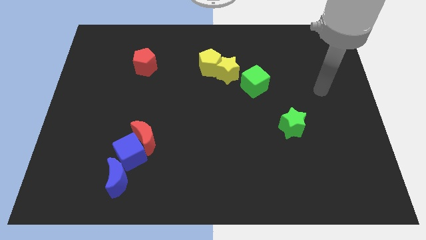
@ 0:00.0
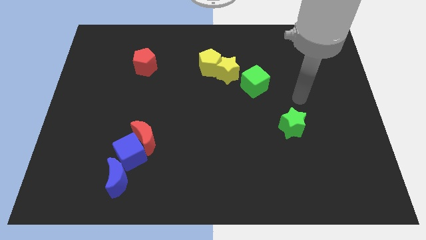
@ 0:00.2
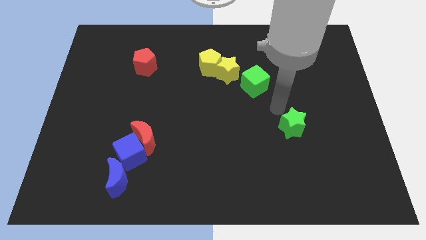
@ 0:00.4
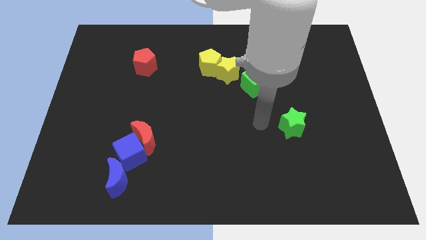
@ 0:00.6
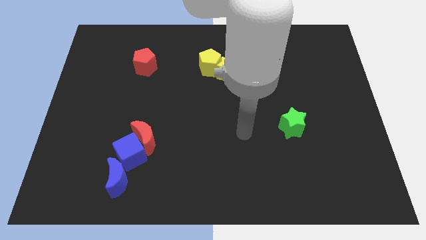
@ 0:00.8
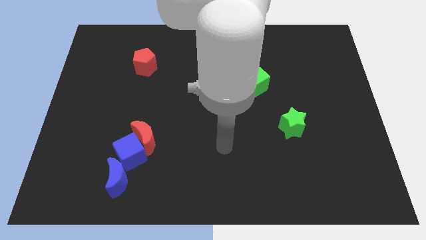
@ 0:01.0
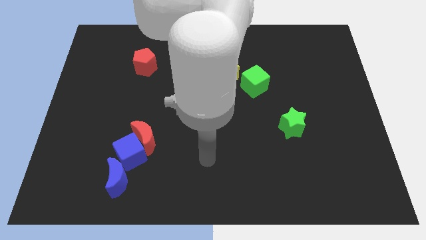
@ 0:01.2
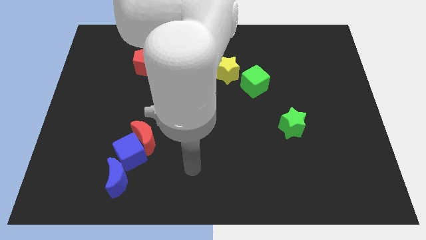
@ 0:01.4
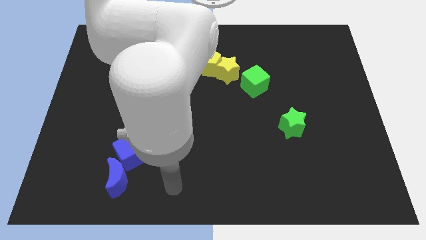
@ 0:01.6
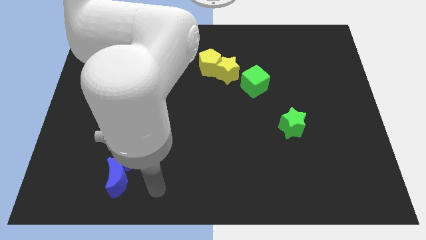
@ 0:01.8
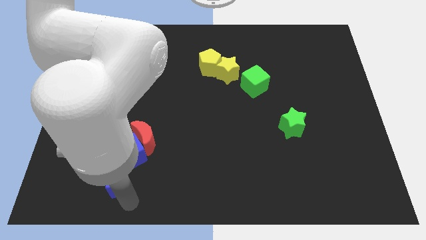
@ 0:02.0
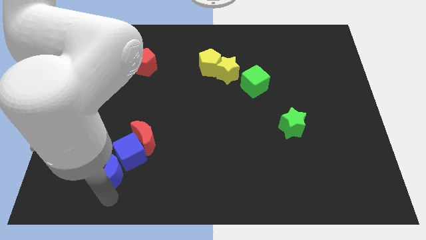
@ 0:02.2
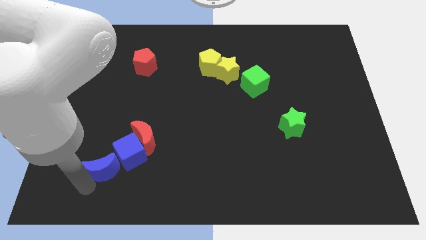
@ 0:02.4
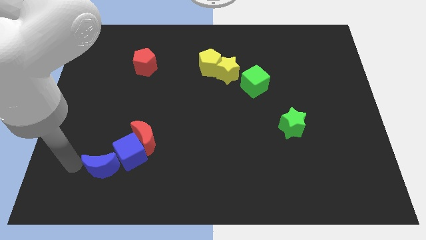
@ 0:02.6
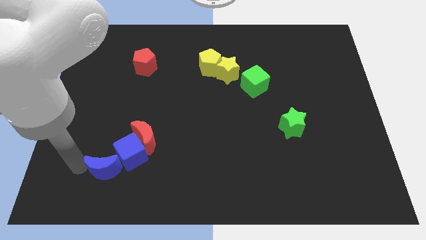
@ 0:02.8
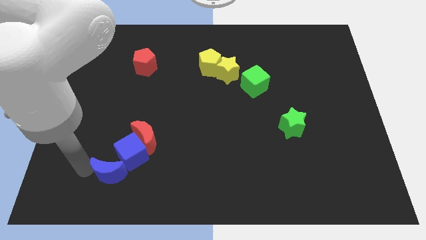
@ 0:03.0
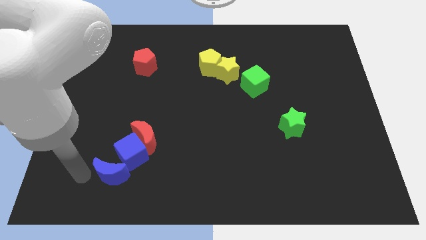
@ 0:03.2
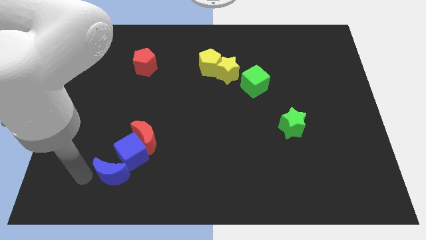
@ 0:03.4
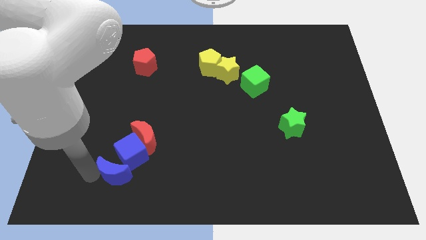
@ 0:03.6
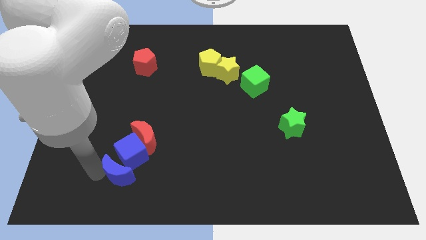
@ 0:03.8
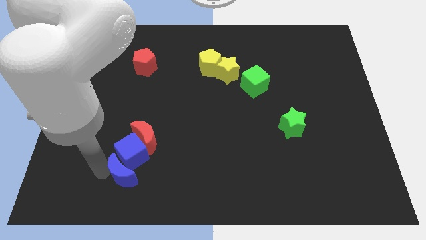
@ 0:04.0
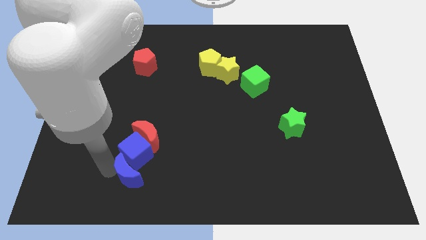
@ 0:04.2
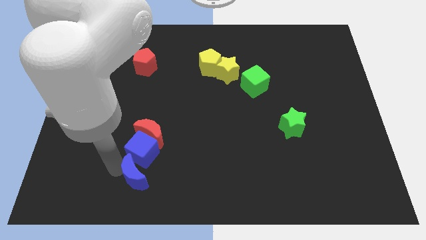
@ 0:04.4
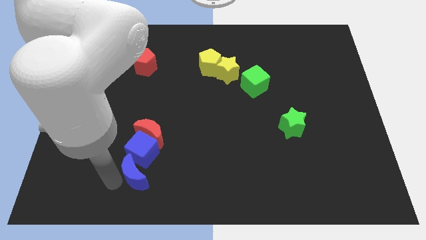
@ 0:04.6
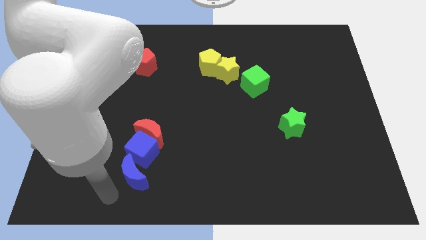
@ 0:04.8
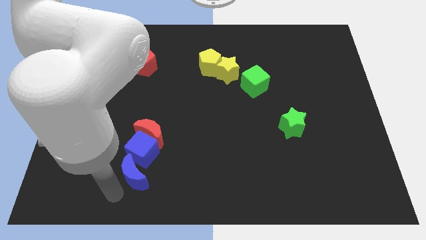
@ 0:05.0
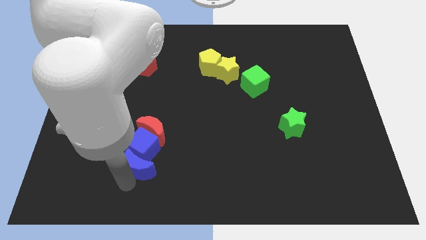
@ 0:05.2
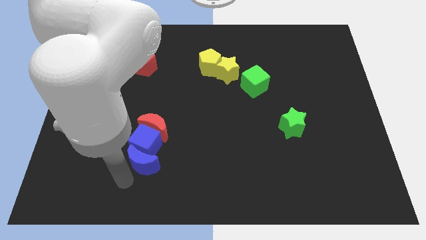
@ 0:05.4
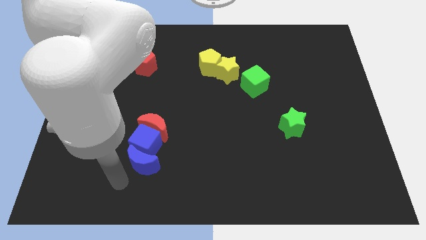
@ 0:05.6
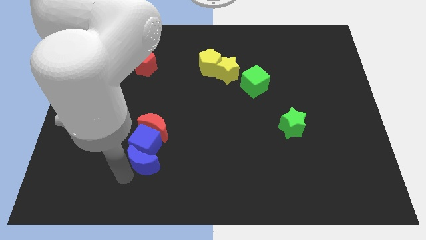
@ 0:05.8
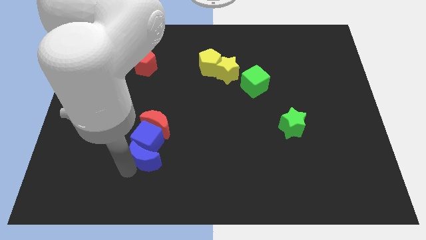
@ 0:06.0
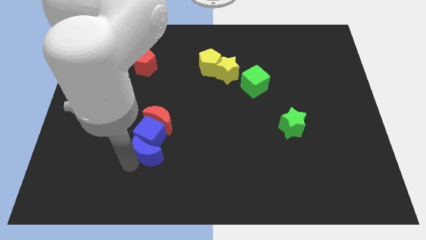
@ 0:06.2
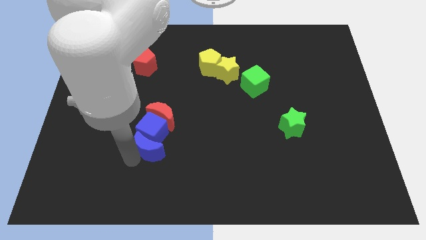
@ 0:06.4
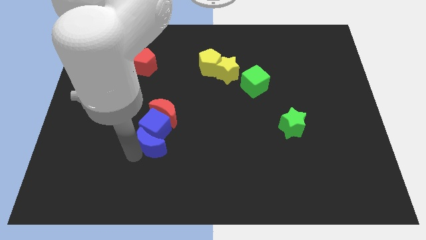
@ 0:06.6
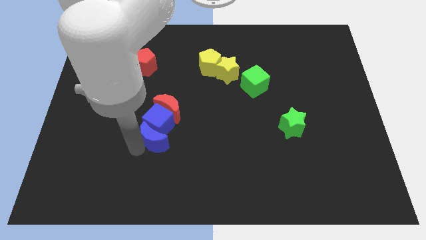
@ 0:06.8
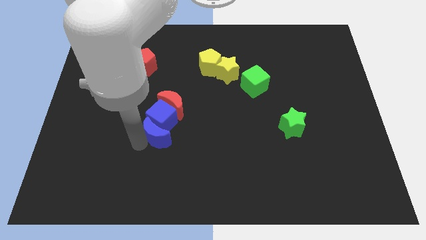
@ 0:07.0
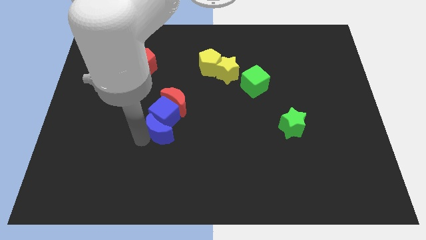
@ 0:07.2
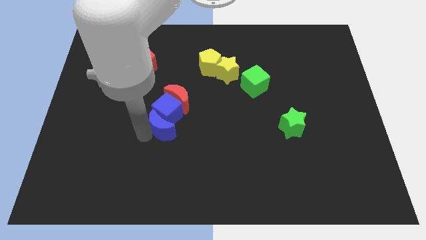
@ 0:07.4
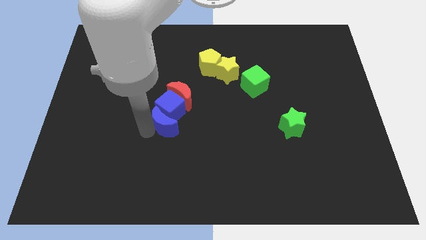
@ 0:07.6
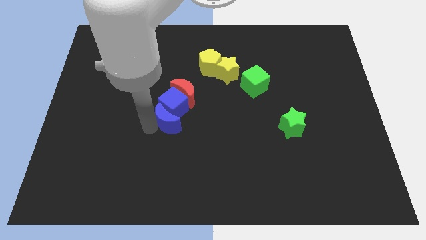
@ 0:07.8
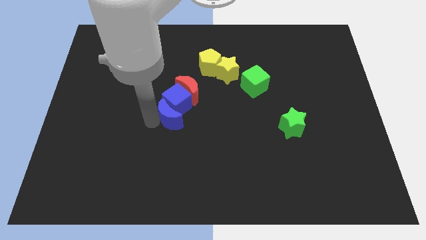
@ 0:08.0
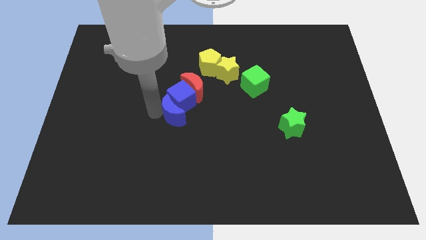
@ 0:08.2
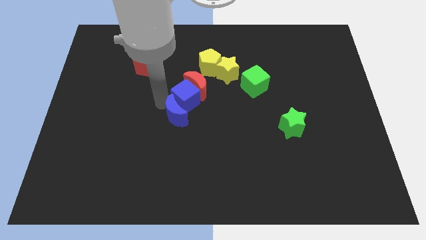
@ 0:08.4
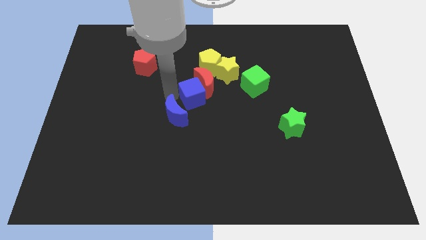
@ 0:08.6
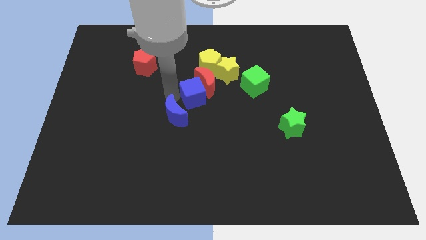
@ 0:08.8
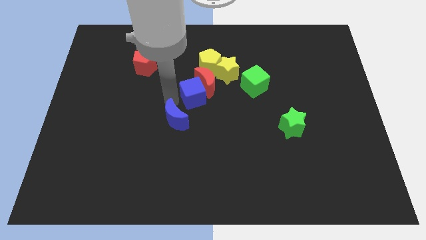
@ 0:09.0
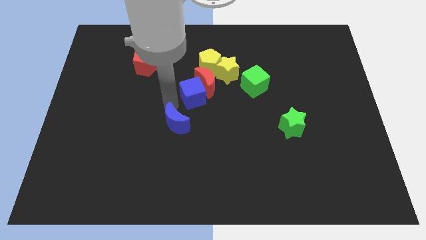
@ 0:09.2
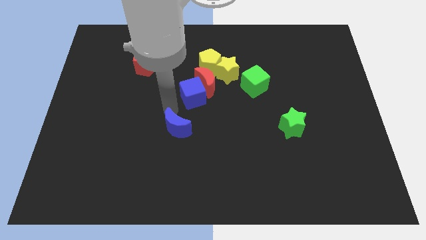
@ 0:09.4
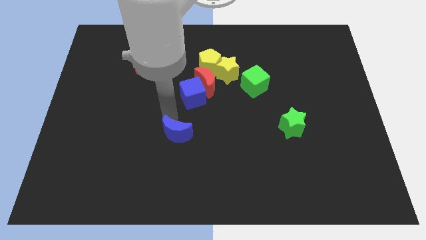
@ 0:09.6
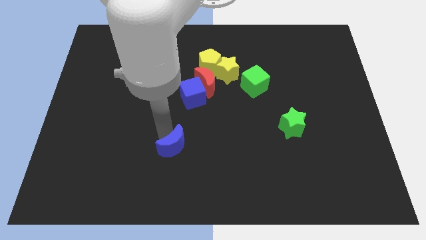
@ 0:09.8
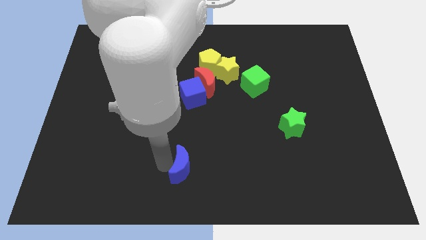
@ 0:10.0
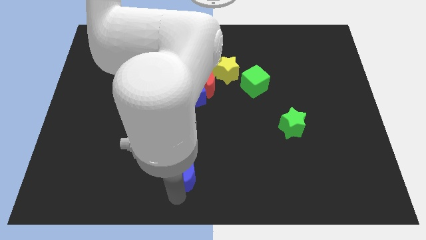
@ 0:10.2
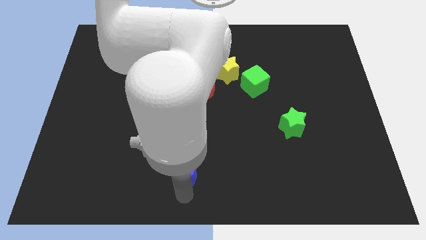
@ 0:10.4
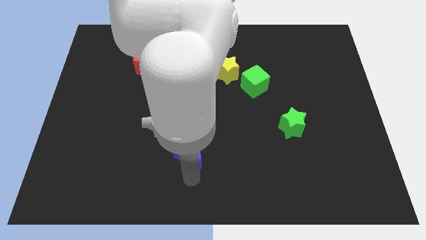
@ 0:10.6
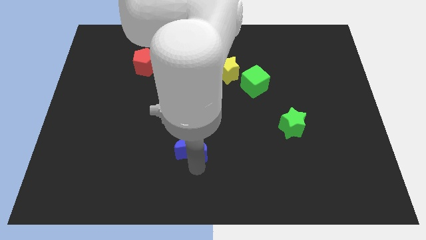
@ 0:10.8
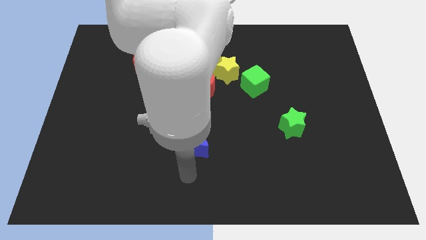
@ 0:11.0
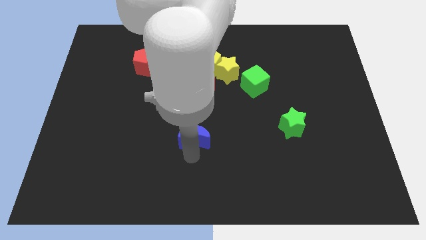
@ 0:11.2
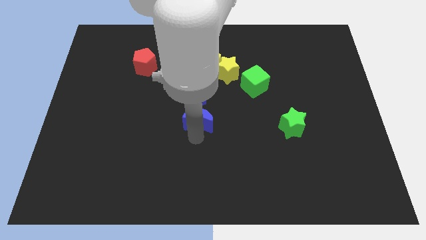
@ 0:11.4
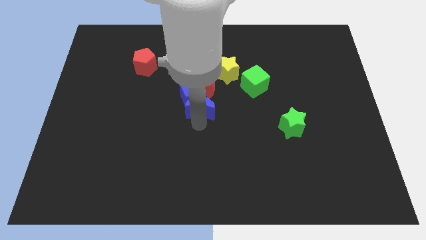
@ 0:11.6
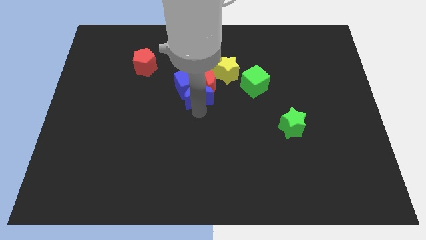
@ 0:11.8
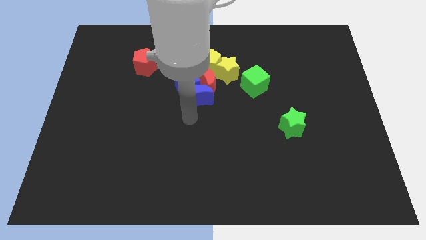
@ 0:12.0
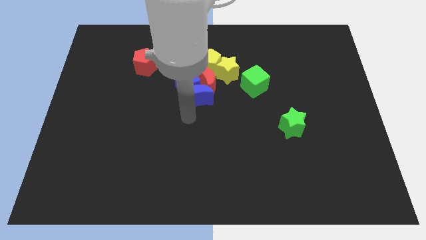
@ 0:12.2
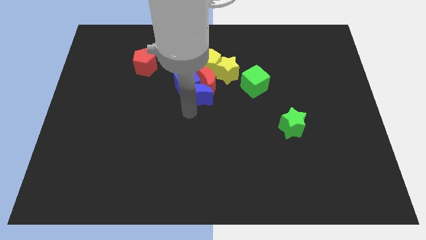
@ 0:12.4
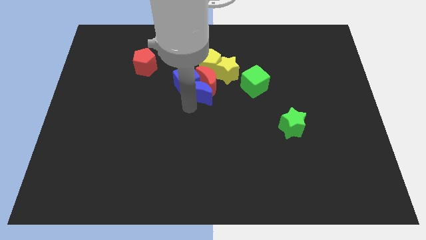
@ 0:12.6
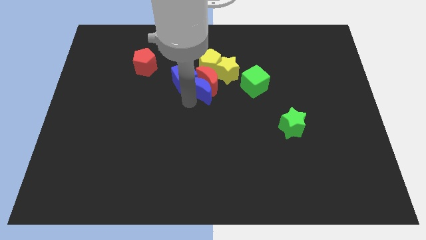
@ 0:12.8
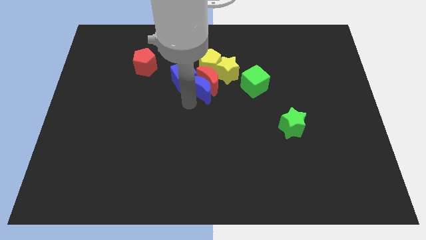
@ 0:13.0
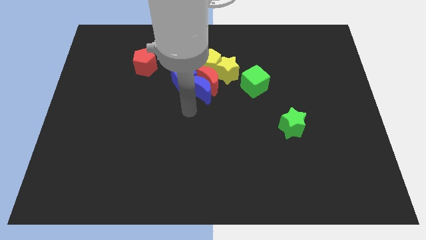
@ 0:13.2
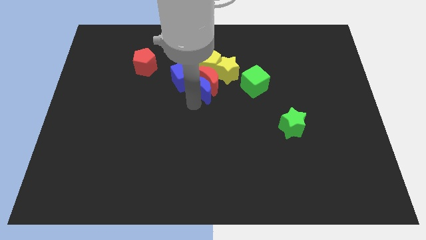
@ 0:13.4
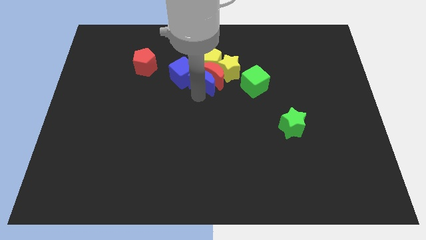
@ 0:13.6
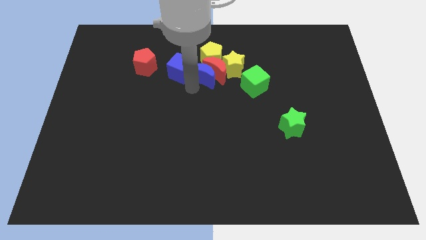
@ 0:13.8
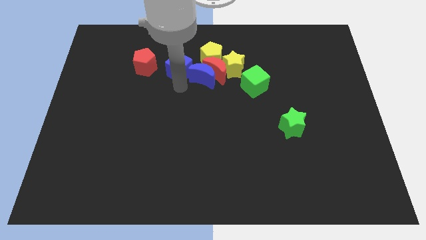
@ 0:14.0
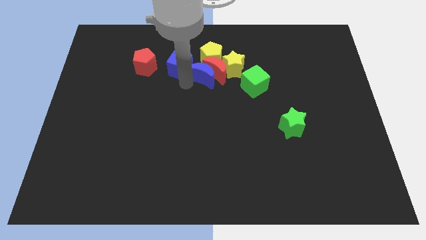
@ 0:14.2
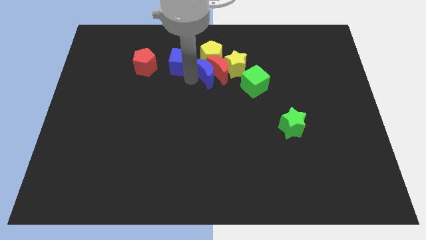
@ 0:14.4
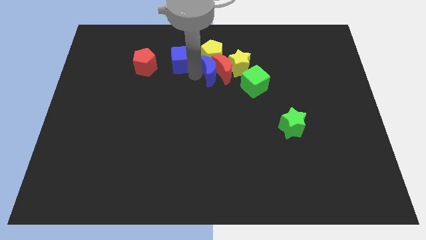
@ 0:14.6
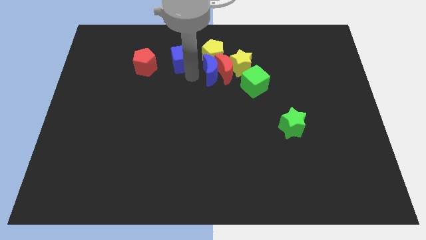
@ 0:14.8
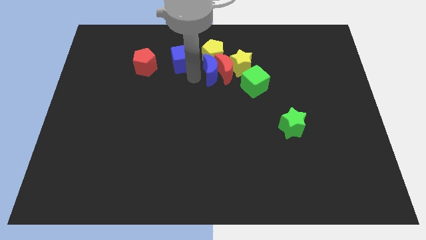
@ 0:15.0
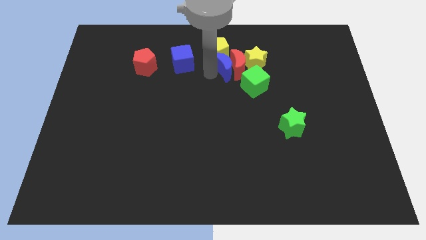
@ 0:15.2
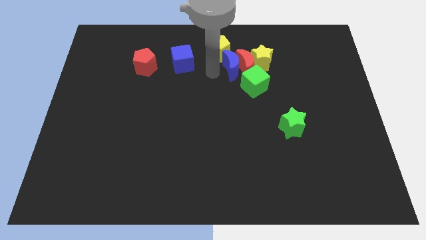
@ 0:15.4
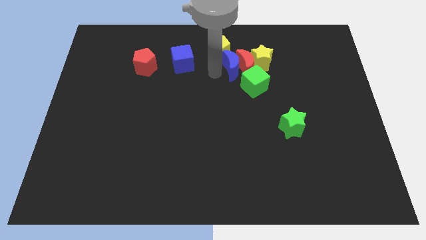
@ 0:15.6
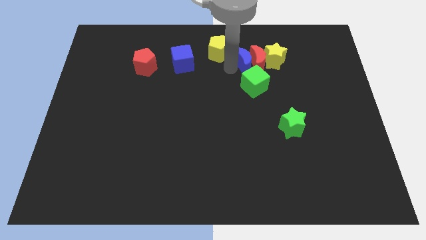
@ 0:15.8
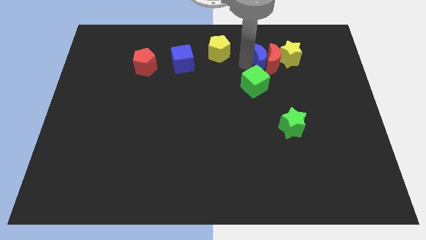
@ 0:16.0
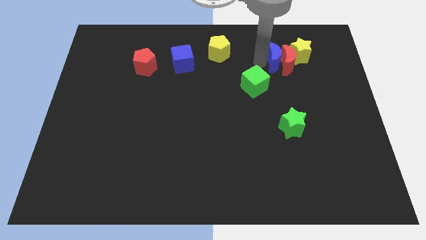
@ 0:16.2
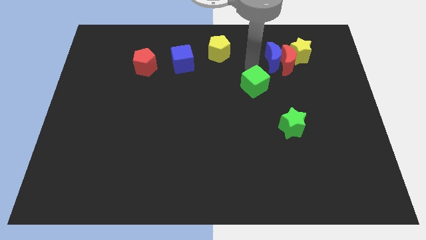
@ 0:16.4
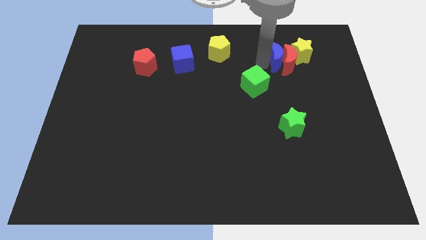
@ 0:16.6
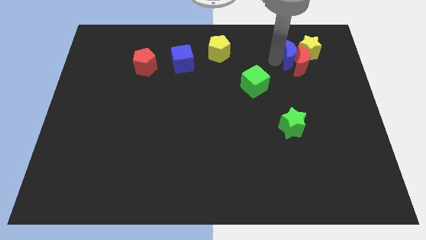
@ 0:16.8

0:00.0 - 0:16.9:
move the blue moon next to the yellow star
